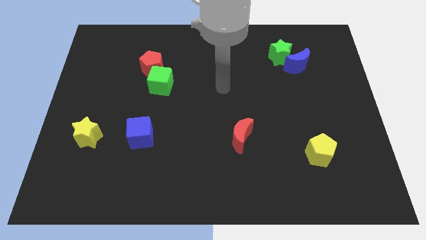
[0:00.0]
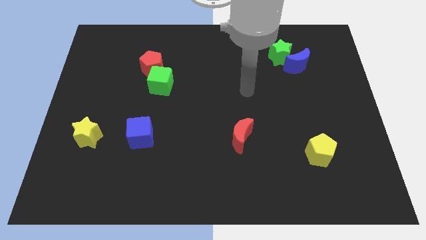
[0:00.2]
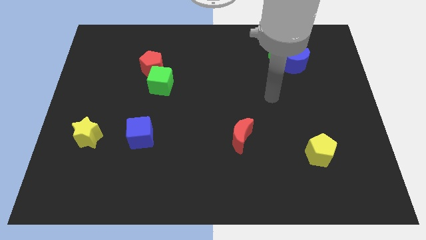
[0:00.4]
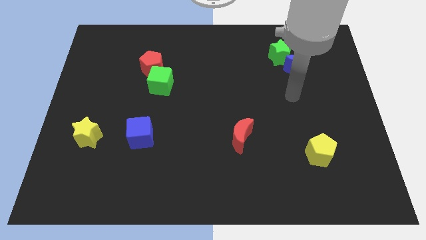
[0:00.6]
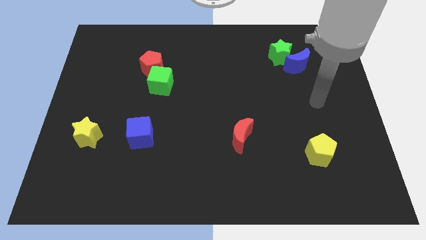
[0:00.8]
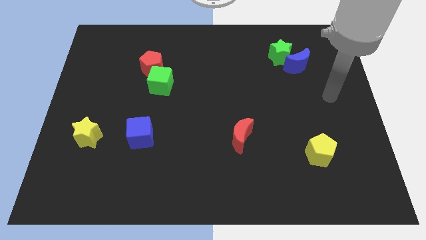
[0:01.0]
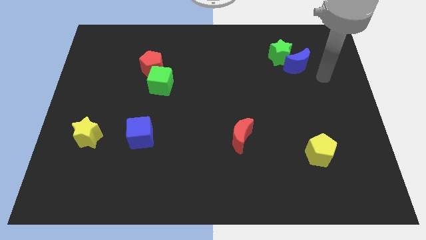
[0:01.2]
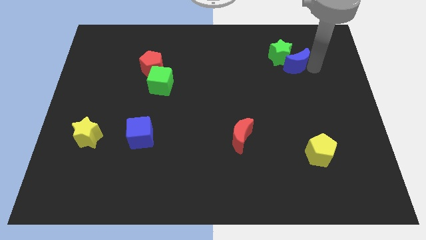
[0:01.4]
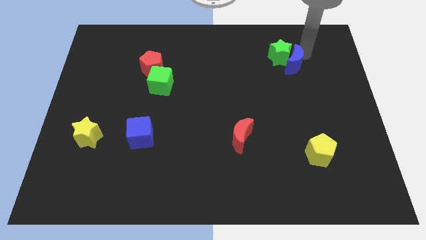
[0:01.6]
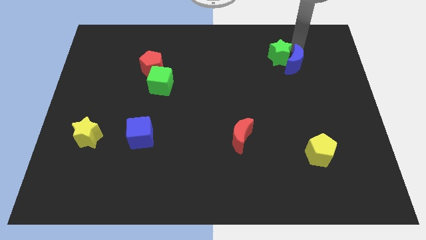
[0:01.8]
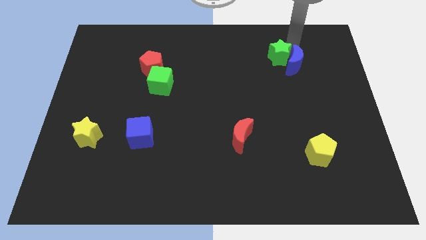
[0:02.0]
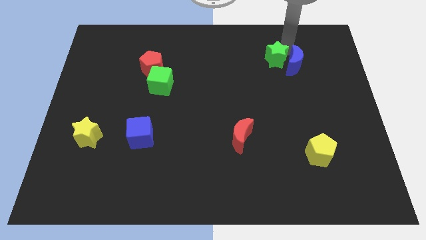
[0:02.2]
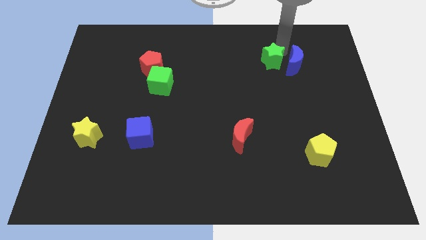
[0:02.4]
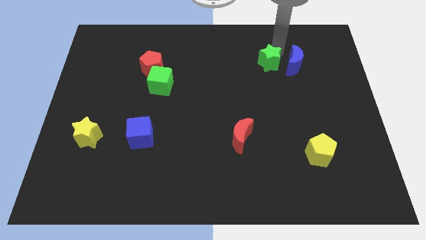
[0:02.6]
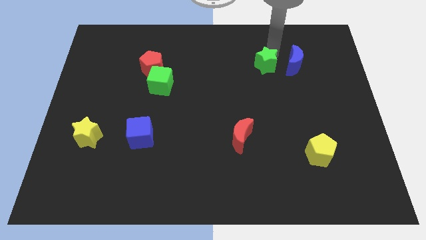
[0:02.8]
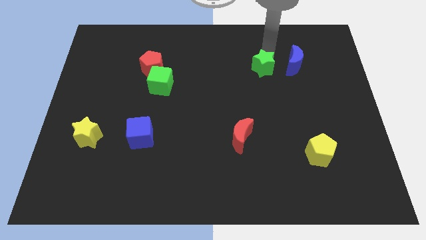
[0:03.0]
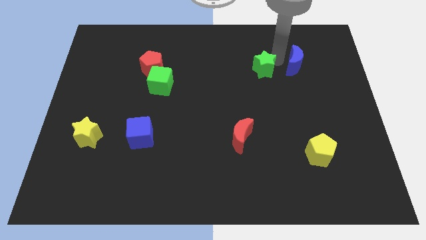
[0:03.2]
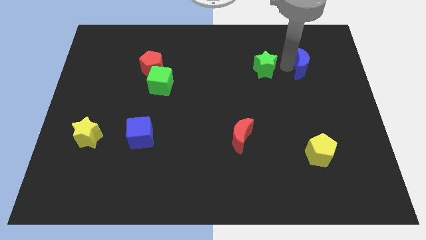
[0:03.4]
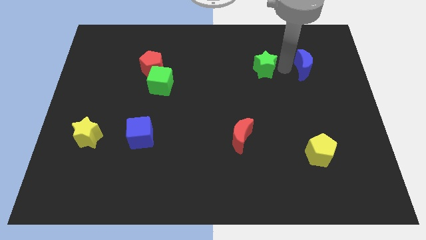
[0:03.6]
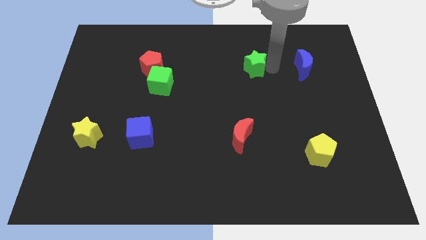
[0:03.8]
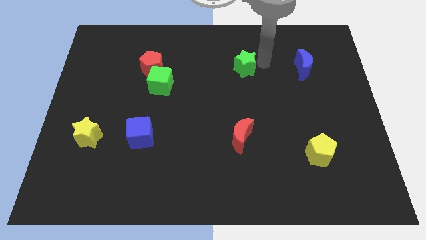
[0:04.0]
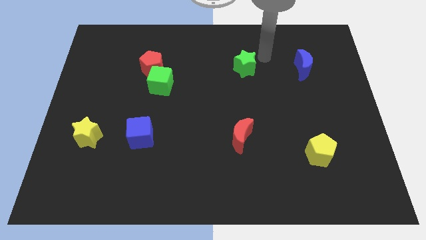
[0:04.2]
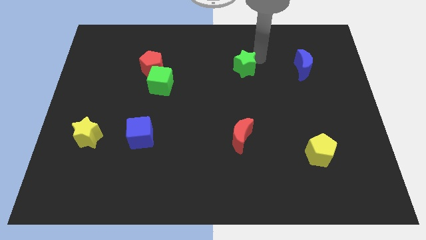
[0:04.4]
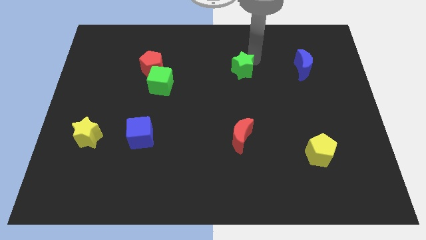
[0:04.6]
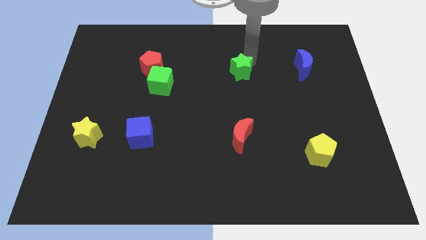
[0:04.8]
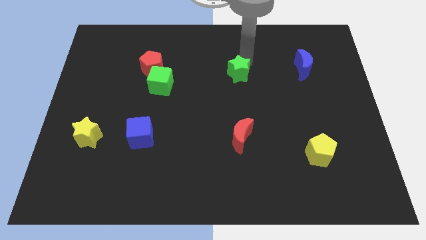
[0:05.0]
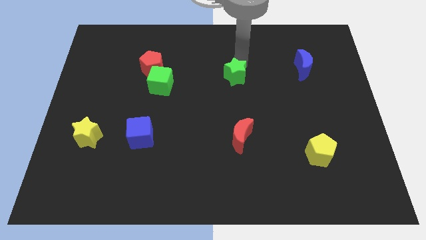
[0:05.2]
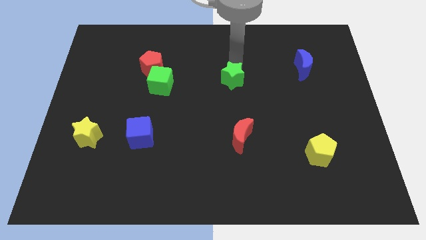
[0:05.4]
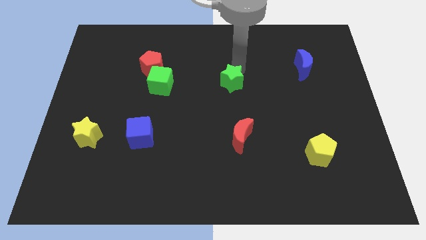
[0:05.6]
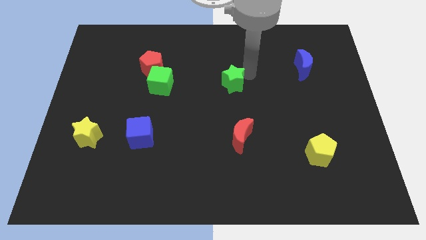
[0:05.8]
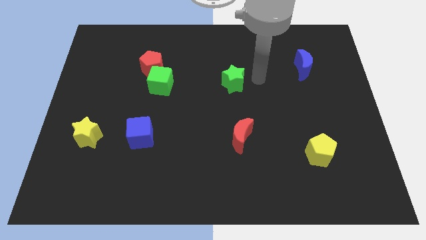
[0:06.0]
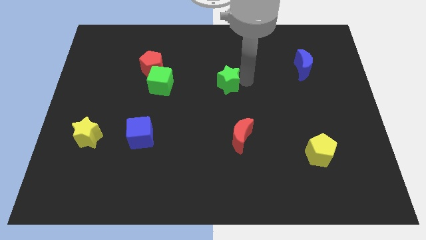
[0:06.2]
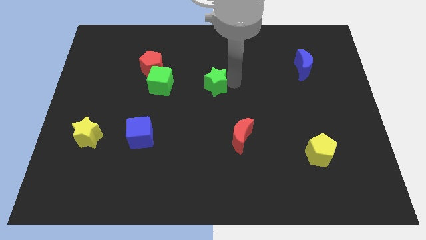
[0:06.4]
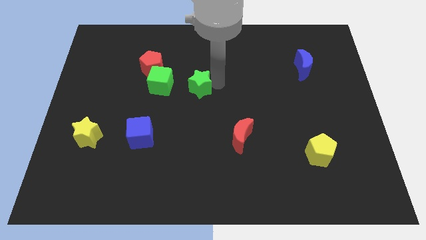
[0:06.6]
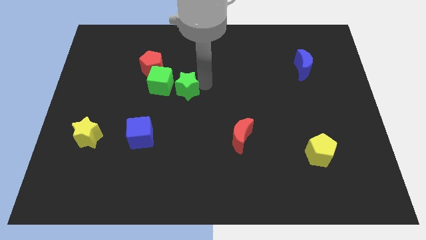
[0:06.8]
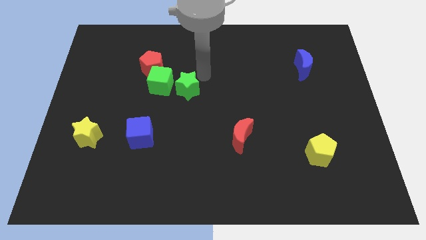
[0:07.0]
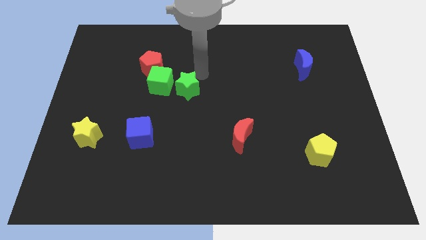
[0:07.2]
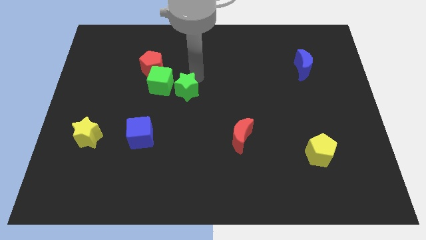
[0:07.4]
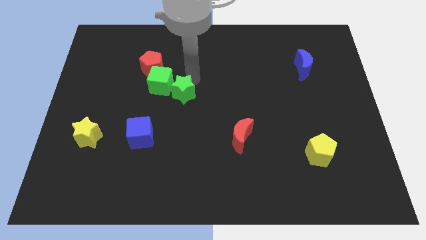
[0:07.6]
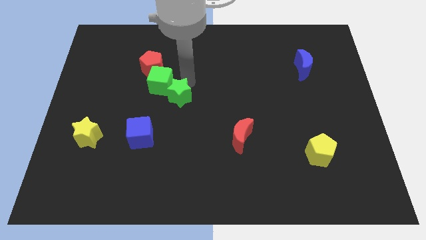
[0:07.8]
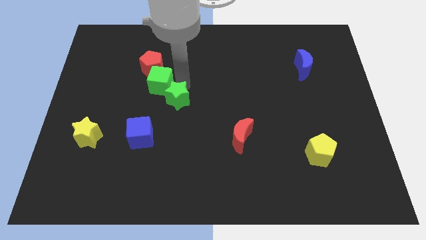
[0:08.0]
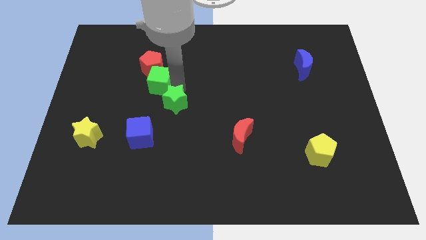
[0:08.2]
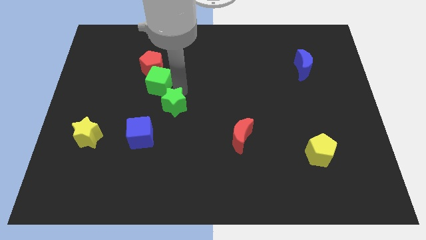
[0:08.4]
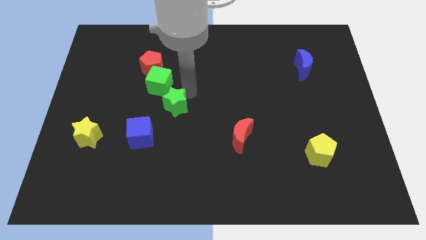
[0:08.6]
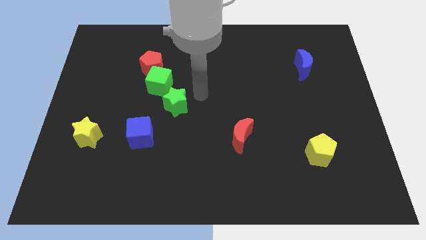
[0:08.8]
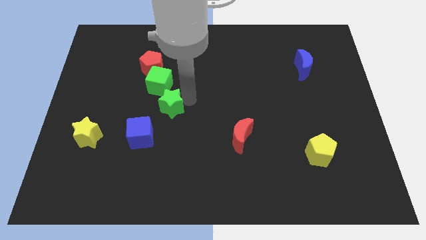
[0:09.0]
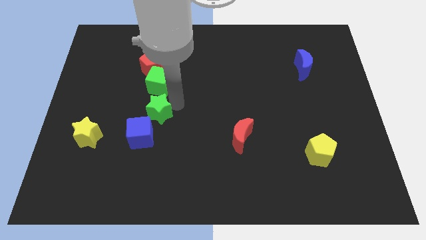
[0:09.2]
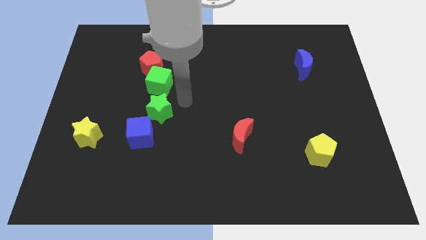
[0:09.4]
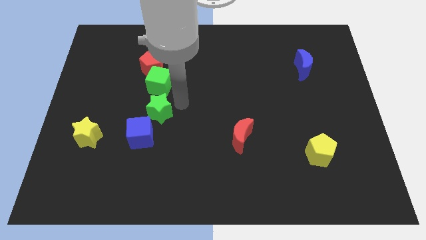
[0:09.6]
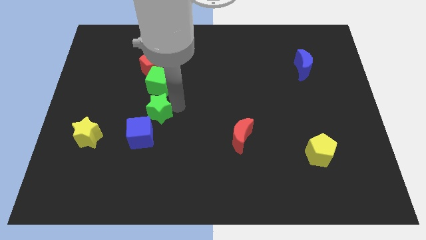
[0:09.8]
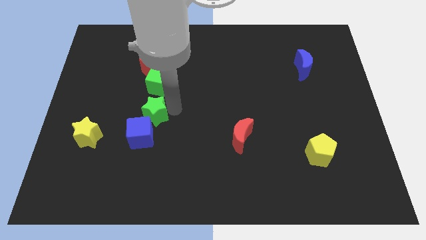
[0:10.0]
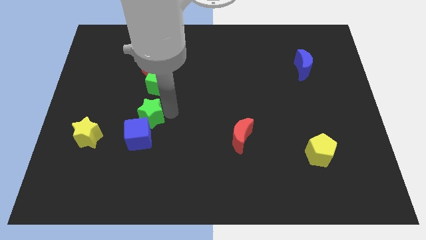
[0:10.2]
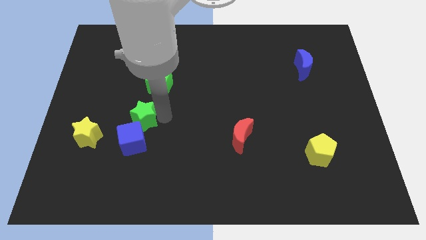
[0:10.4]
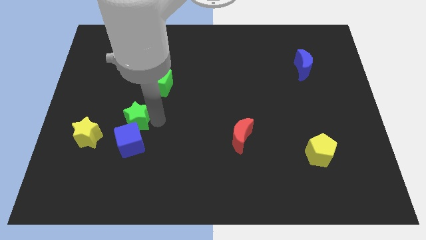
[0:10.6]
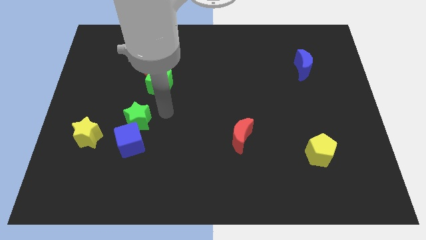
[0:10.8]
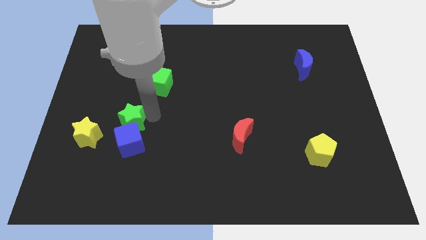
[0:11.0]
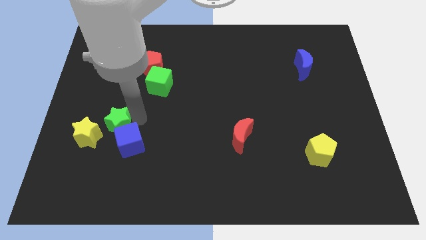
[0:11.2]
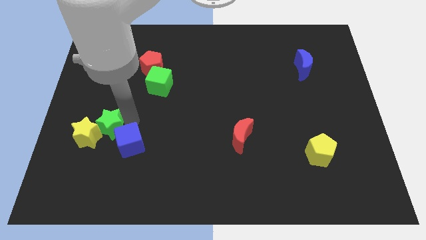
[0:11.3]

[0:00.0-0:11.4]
move the green star next to the yellow star

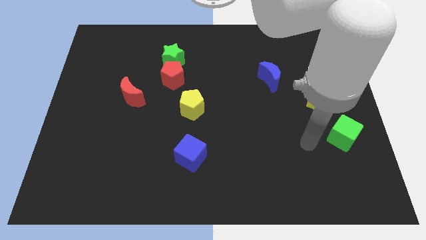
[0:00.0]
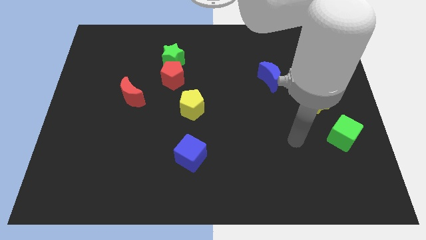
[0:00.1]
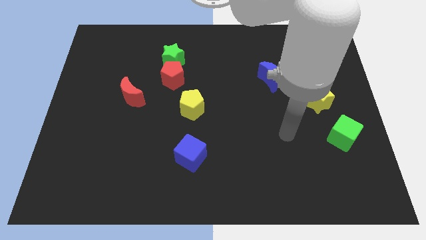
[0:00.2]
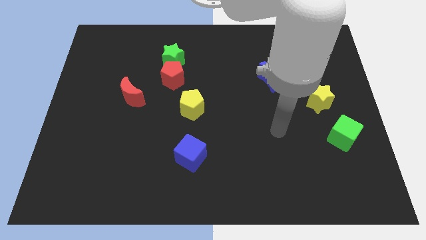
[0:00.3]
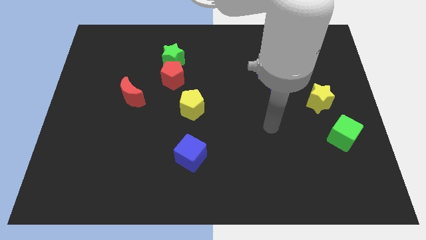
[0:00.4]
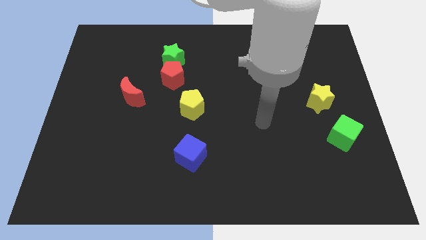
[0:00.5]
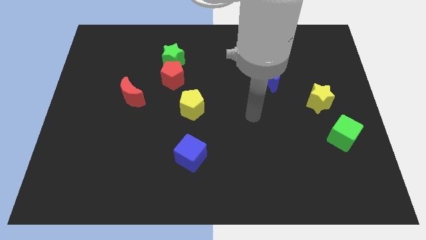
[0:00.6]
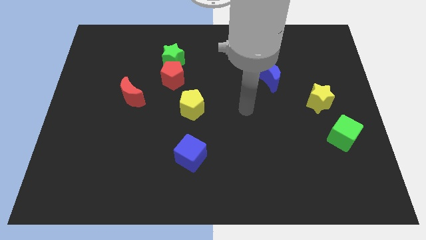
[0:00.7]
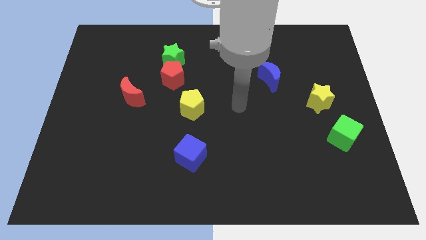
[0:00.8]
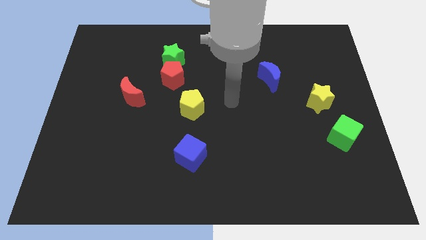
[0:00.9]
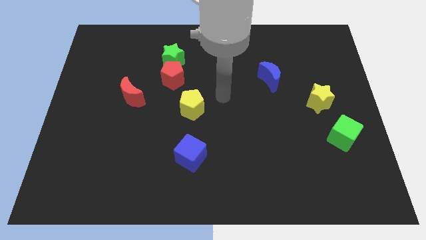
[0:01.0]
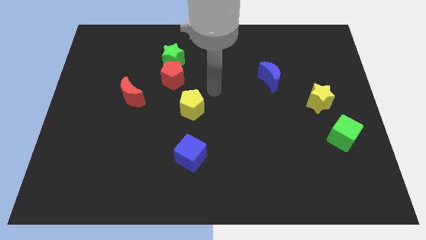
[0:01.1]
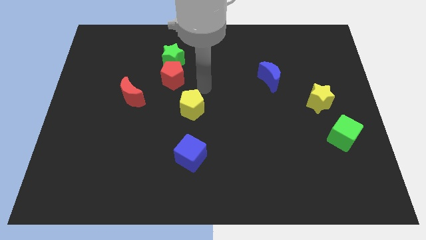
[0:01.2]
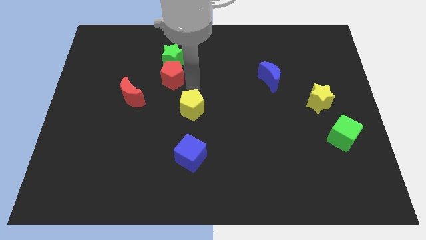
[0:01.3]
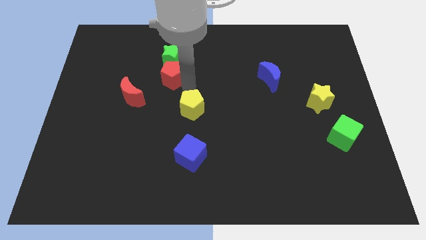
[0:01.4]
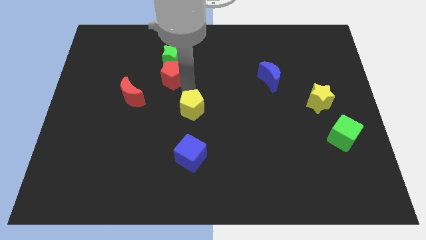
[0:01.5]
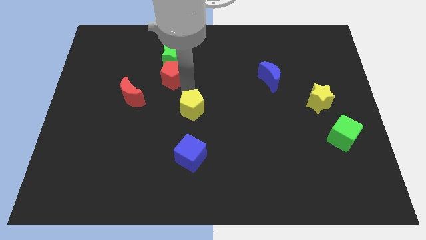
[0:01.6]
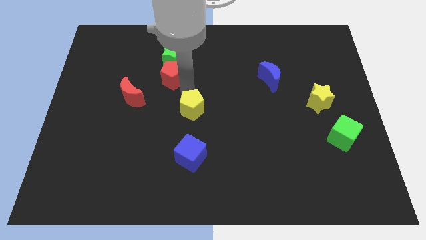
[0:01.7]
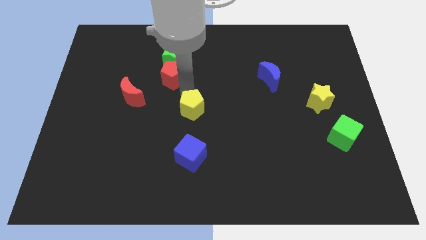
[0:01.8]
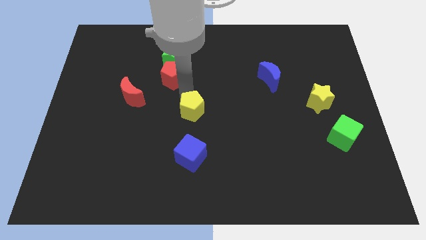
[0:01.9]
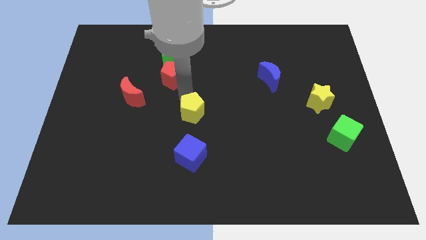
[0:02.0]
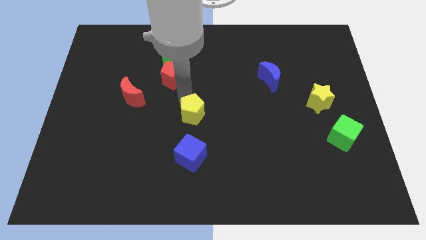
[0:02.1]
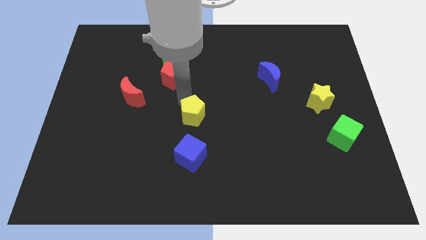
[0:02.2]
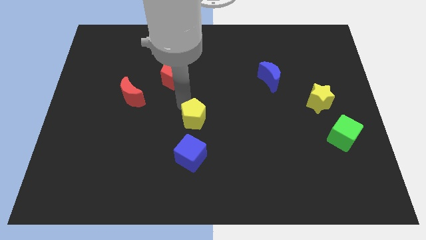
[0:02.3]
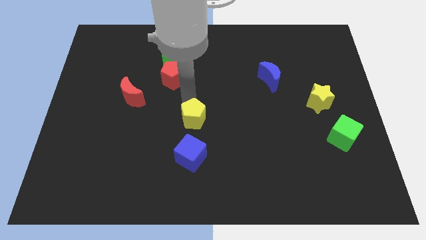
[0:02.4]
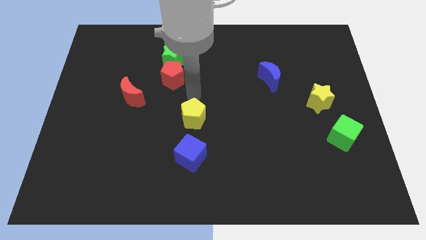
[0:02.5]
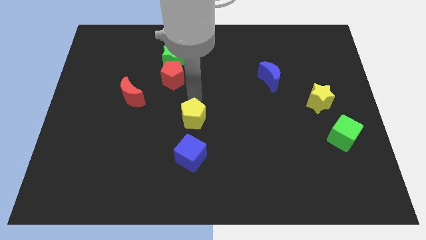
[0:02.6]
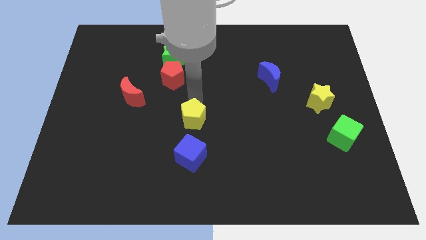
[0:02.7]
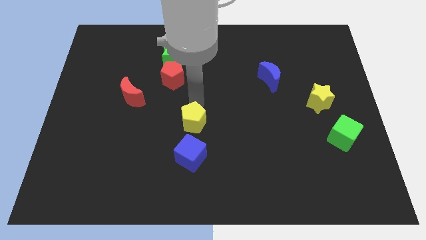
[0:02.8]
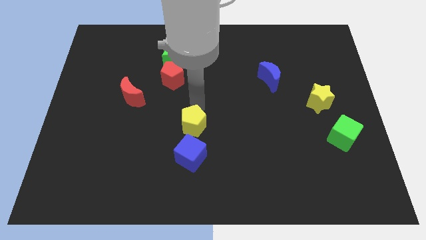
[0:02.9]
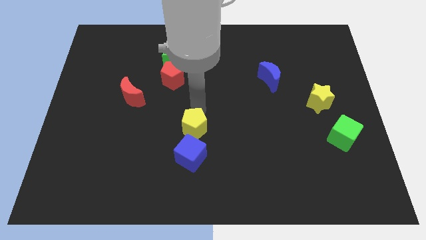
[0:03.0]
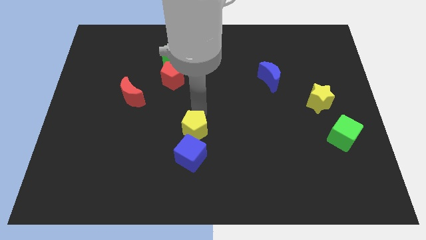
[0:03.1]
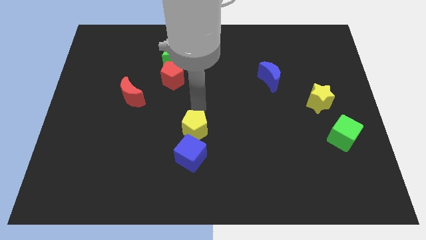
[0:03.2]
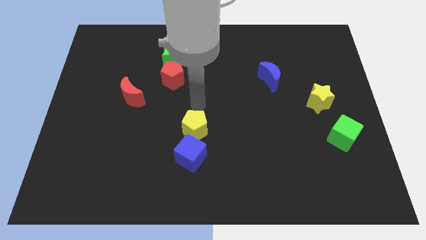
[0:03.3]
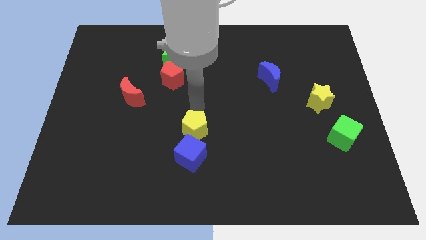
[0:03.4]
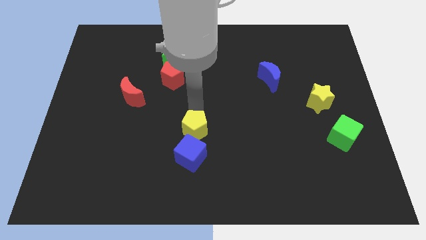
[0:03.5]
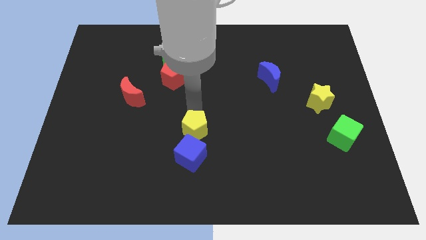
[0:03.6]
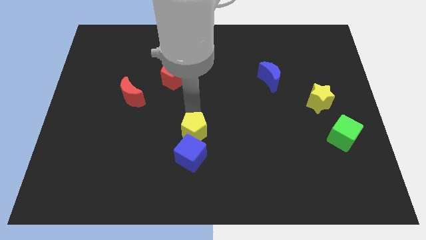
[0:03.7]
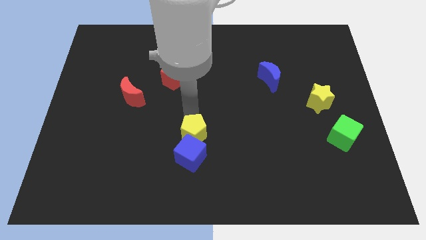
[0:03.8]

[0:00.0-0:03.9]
put the yellow pentagon next to the blue cube
